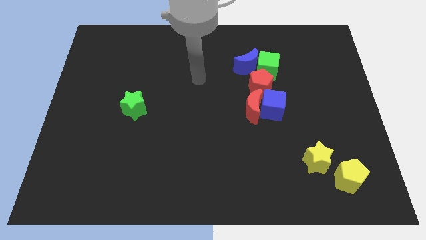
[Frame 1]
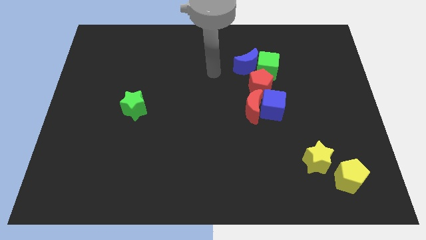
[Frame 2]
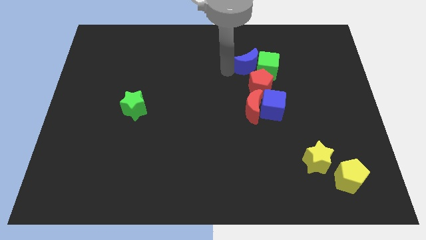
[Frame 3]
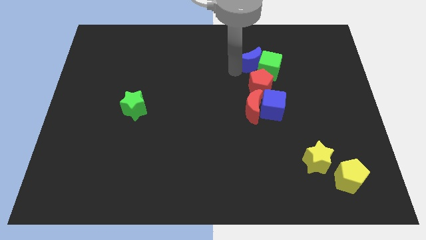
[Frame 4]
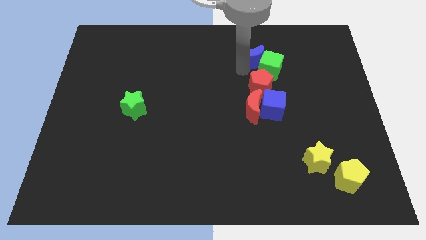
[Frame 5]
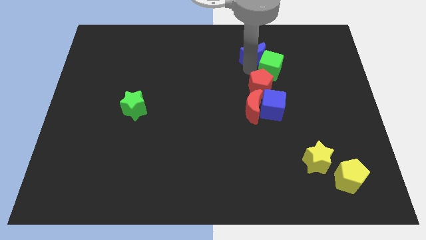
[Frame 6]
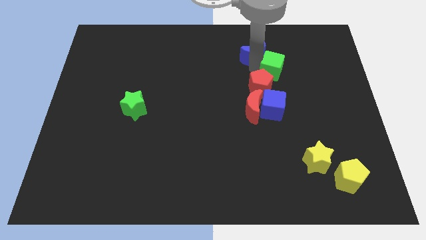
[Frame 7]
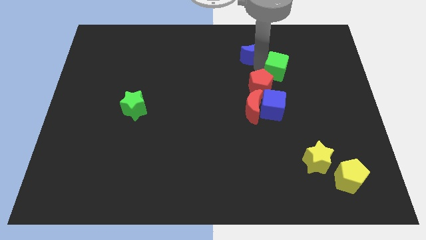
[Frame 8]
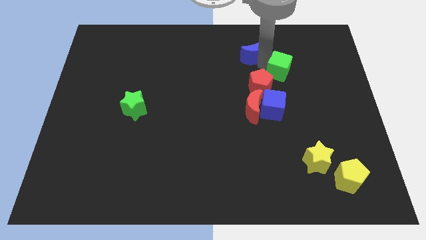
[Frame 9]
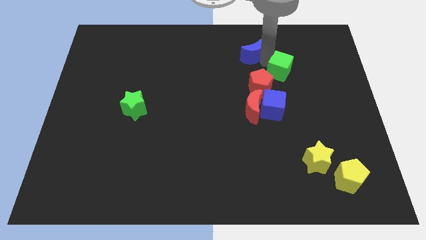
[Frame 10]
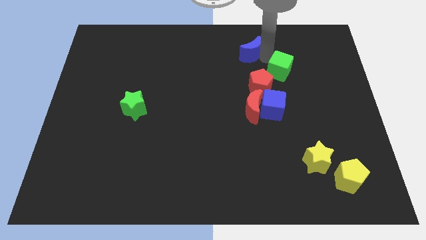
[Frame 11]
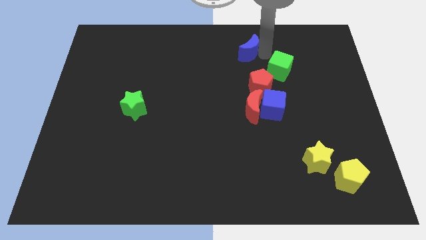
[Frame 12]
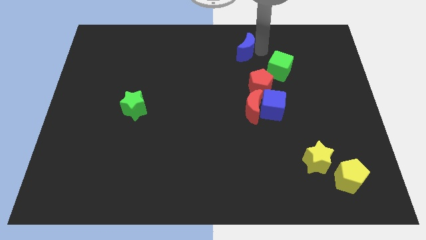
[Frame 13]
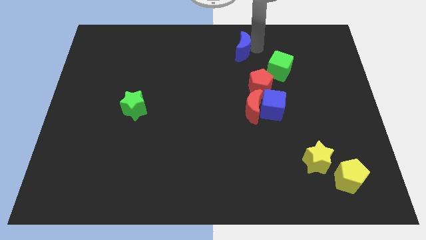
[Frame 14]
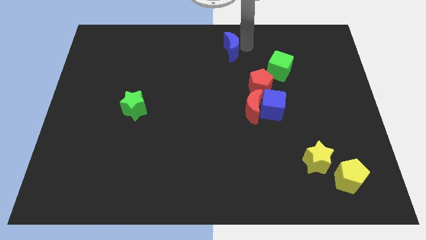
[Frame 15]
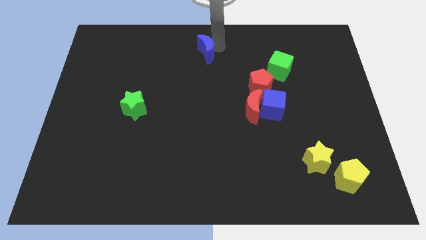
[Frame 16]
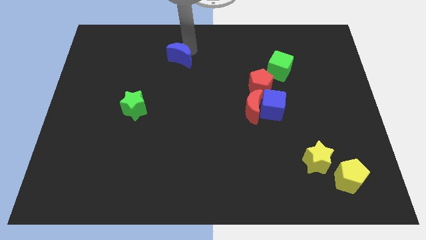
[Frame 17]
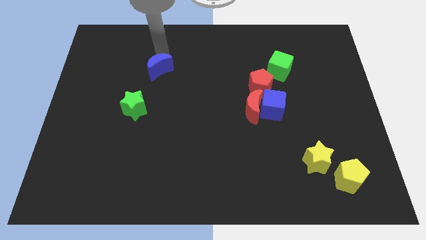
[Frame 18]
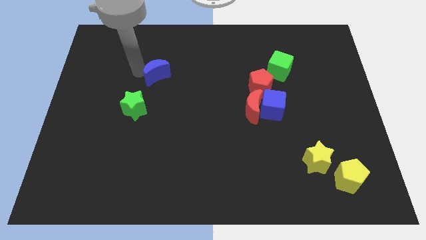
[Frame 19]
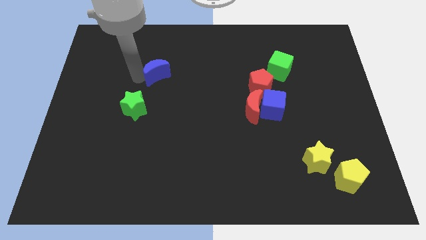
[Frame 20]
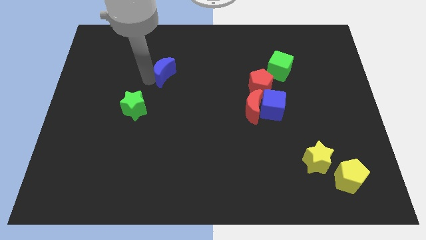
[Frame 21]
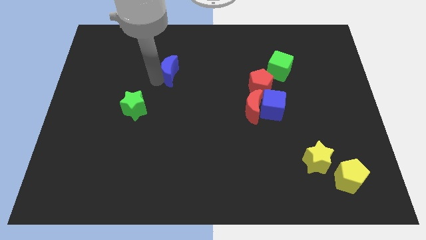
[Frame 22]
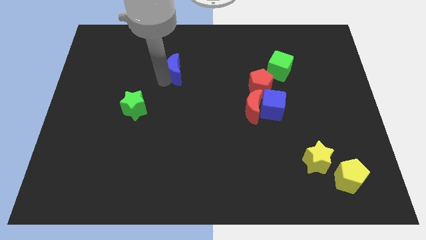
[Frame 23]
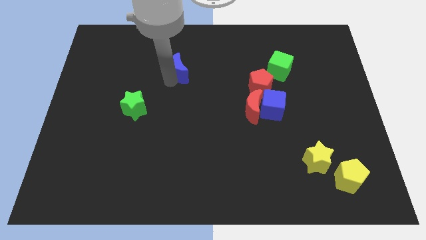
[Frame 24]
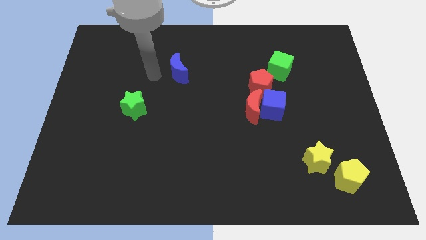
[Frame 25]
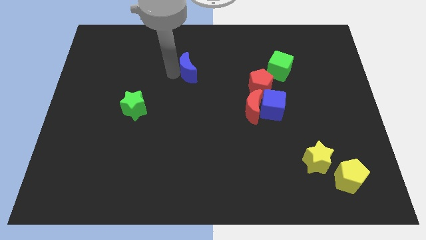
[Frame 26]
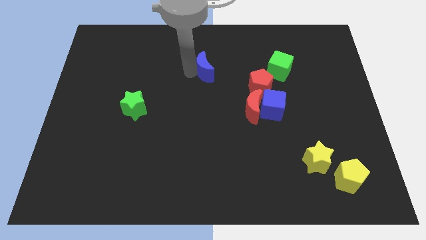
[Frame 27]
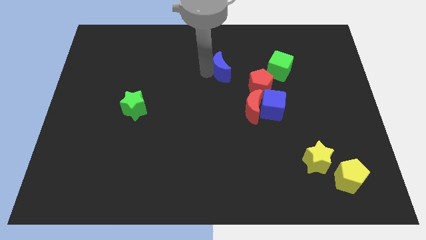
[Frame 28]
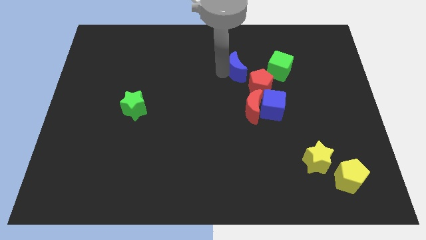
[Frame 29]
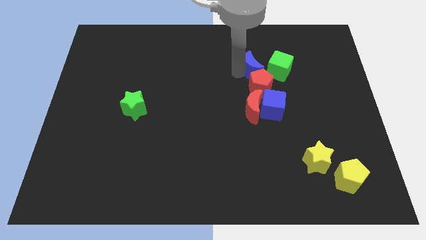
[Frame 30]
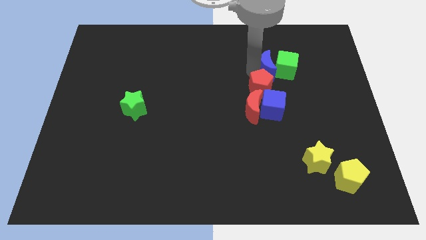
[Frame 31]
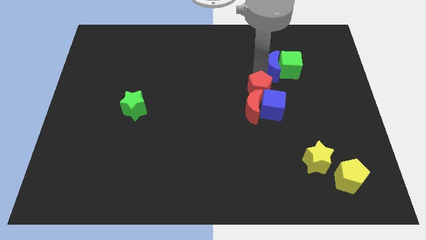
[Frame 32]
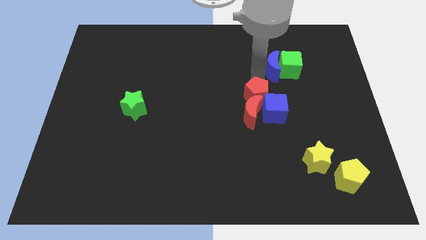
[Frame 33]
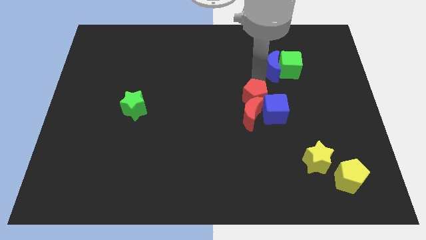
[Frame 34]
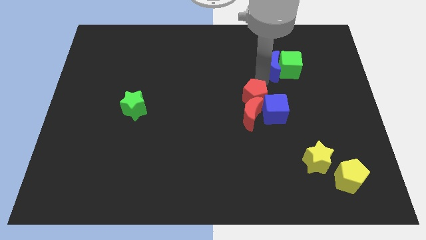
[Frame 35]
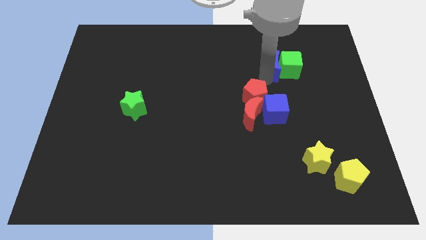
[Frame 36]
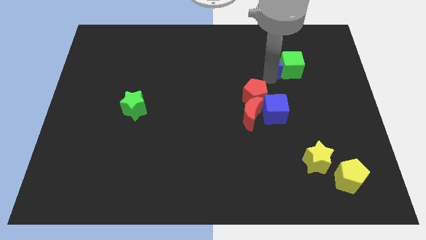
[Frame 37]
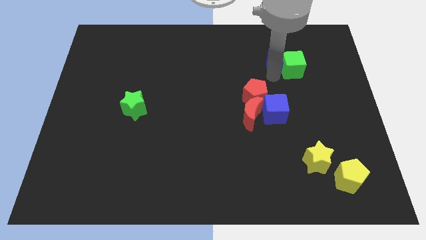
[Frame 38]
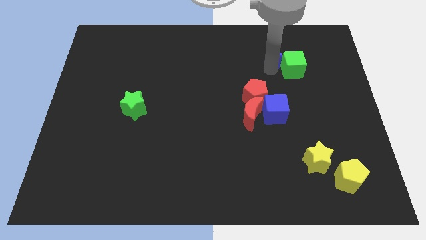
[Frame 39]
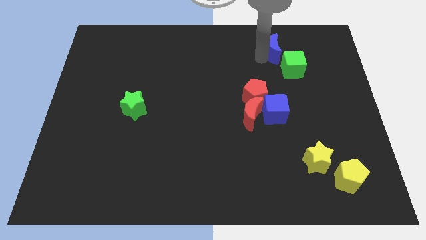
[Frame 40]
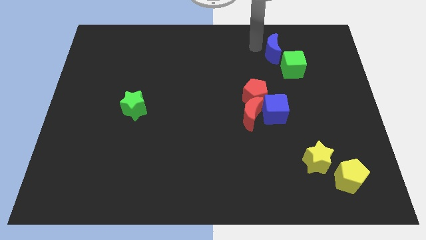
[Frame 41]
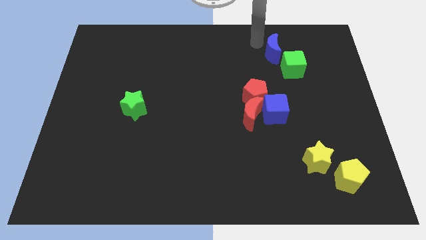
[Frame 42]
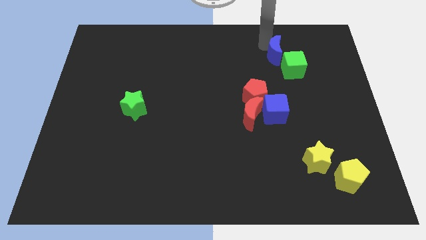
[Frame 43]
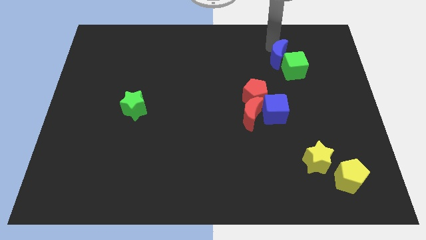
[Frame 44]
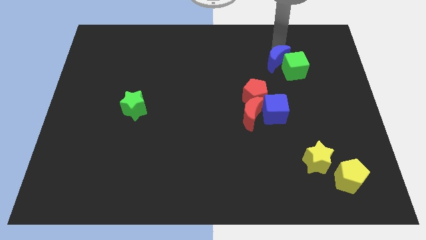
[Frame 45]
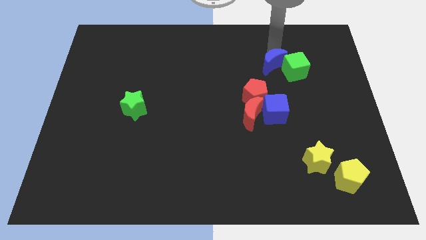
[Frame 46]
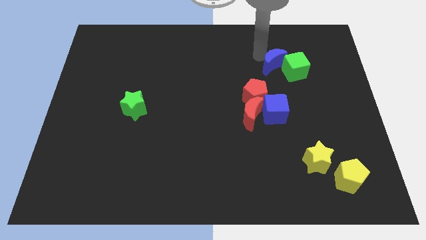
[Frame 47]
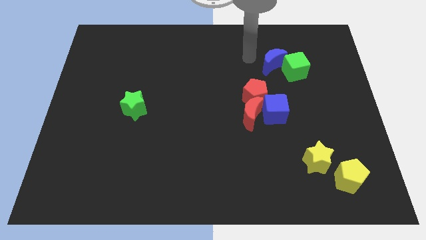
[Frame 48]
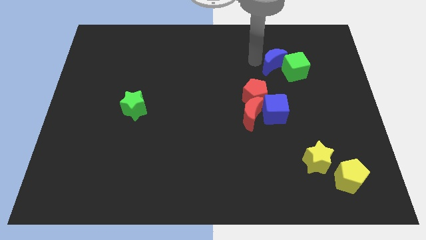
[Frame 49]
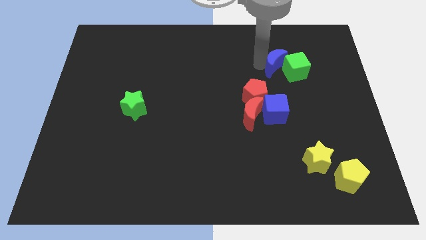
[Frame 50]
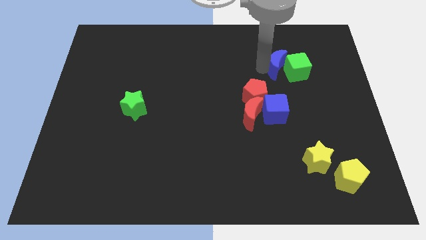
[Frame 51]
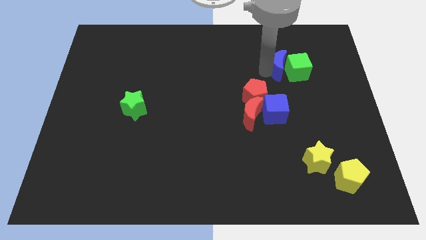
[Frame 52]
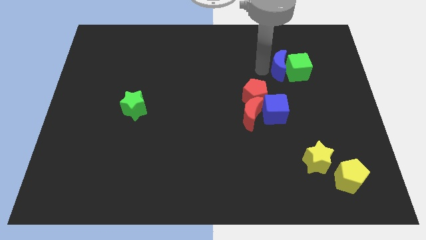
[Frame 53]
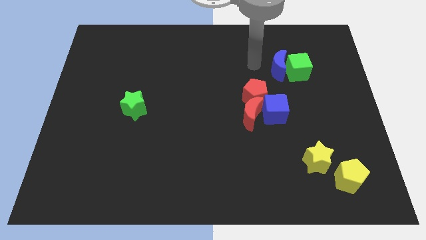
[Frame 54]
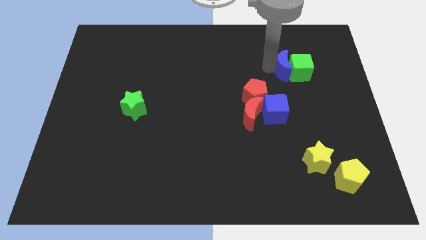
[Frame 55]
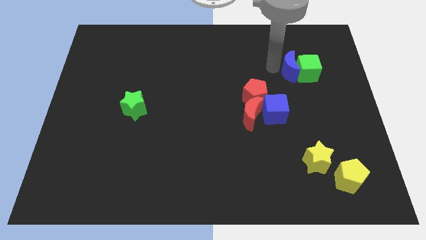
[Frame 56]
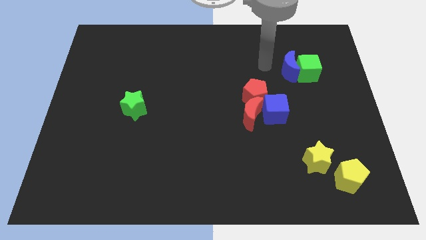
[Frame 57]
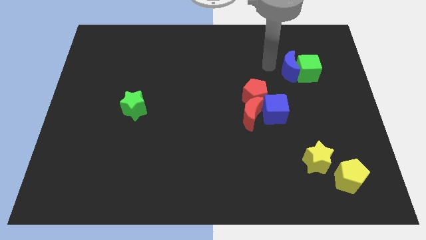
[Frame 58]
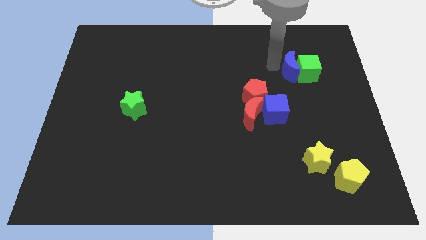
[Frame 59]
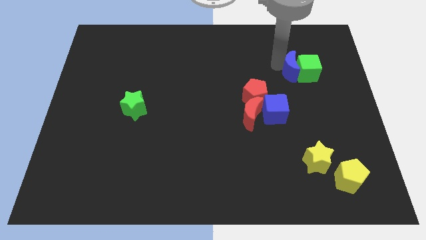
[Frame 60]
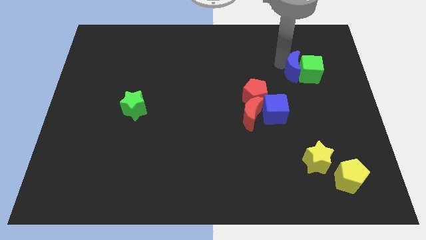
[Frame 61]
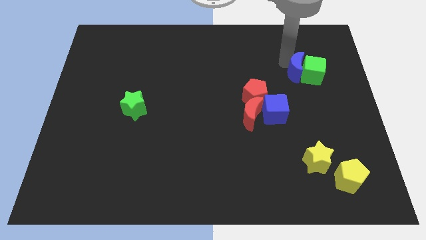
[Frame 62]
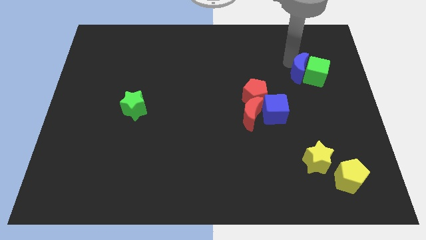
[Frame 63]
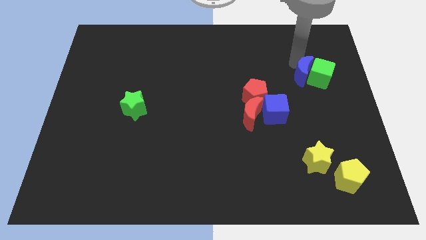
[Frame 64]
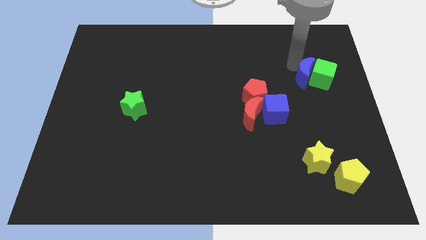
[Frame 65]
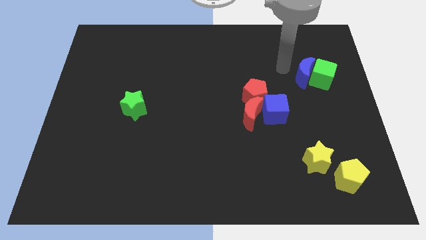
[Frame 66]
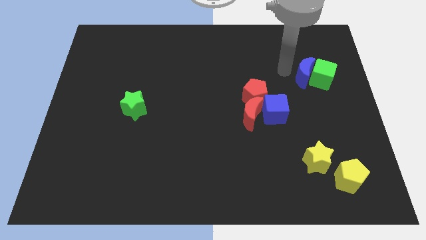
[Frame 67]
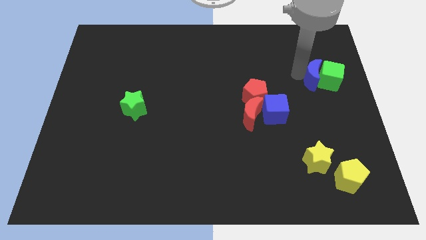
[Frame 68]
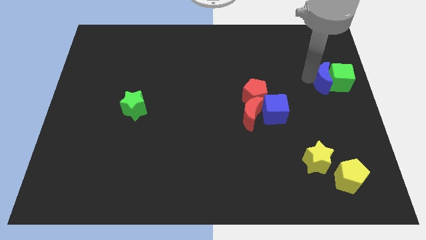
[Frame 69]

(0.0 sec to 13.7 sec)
put the blue moon to the right side of the board
